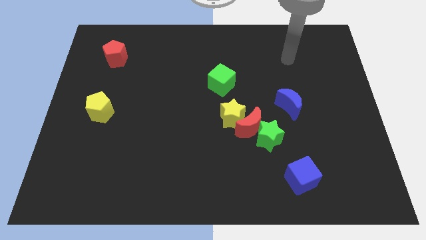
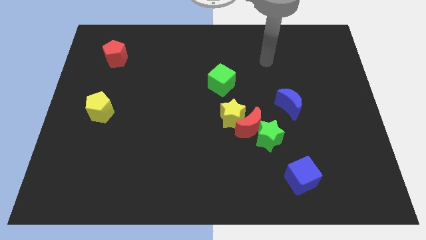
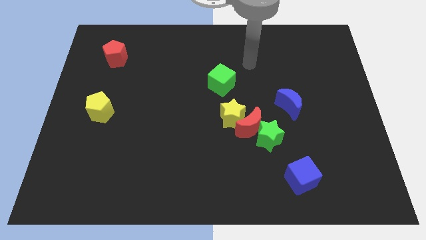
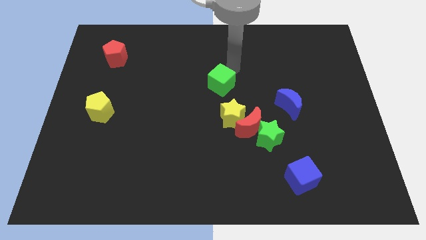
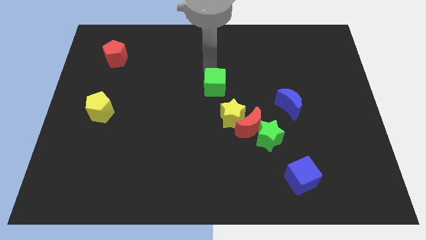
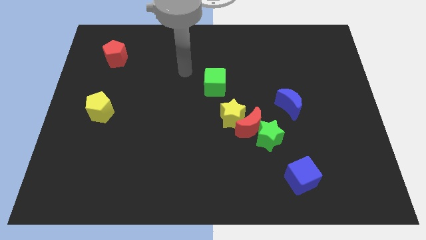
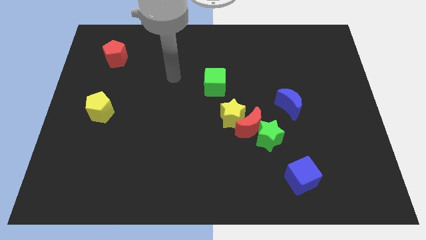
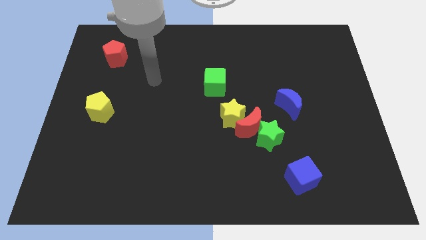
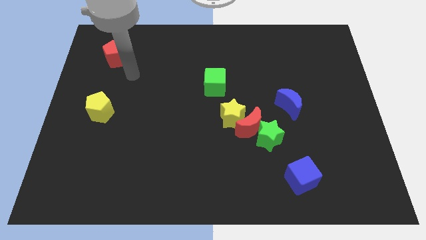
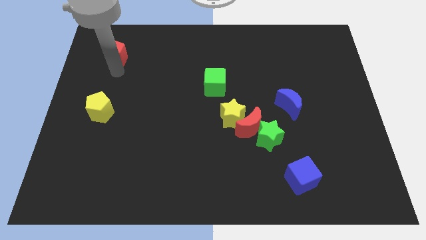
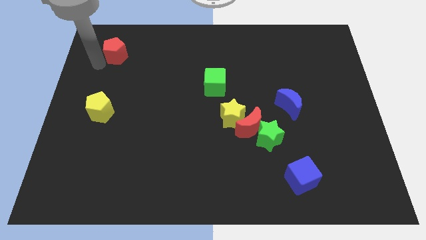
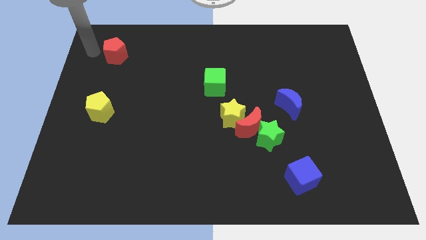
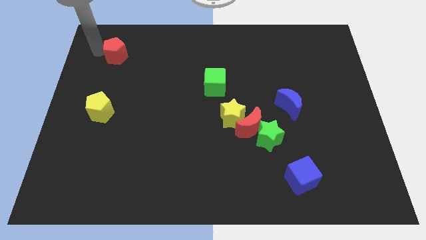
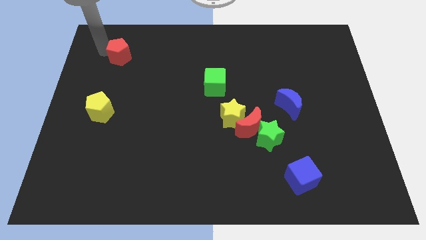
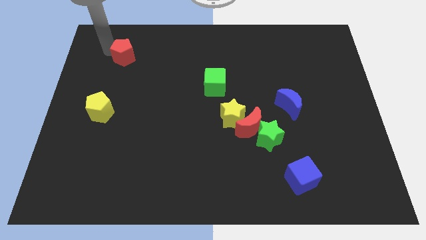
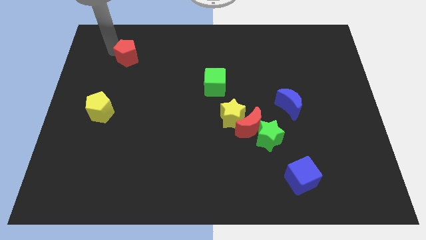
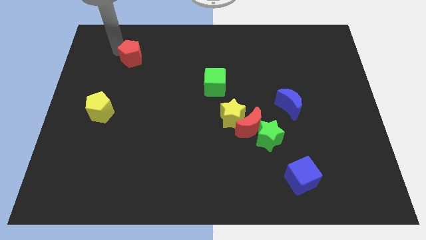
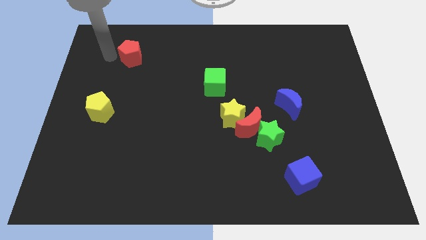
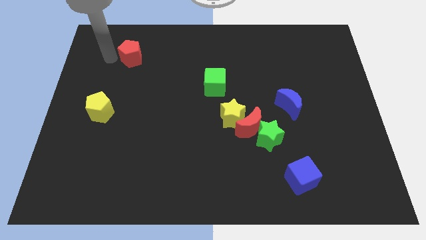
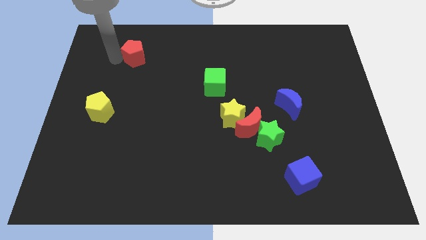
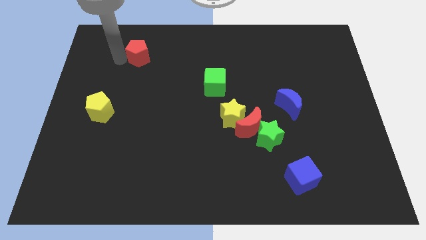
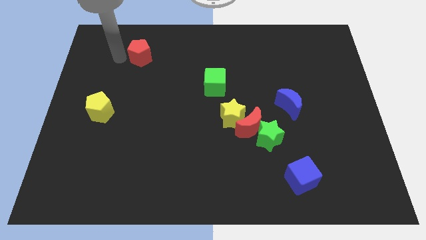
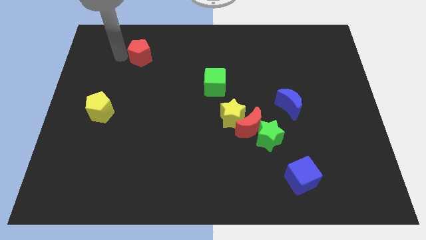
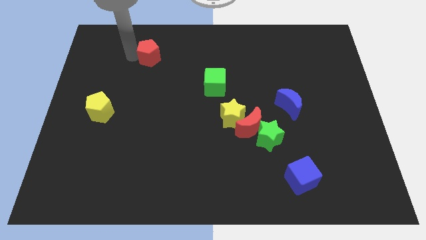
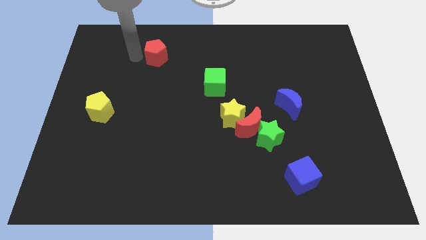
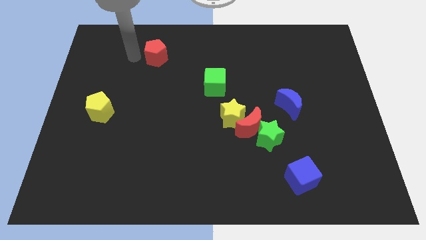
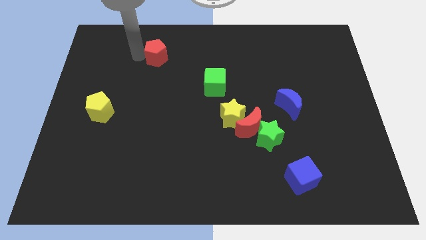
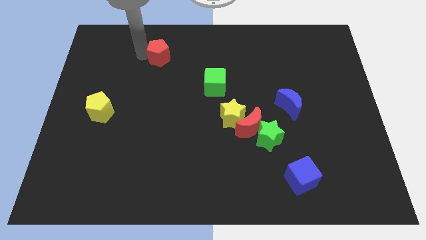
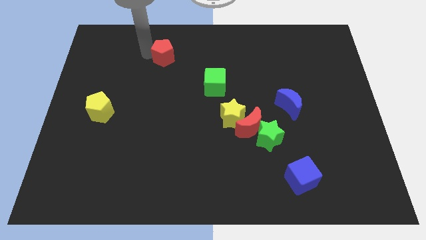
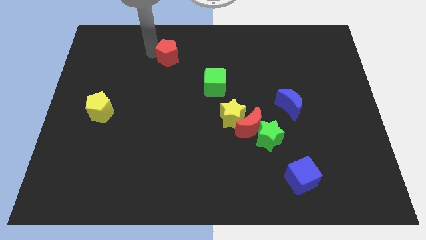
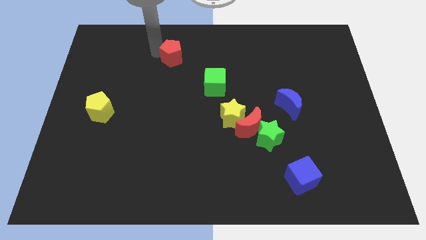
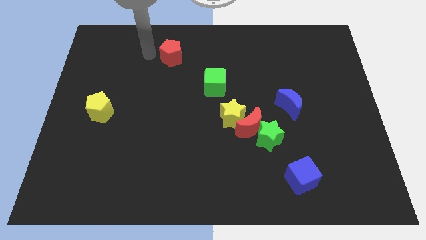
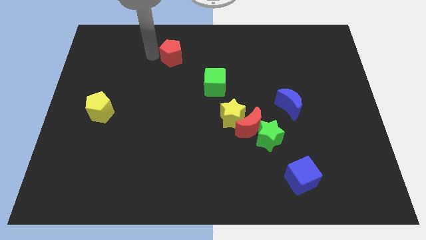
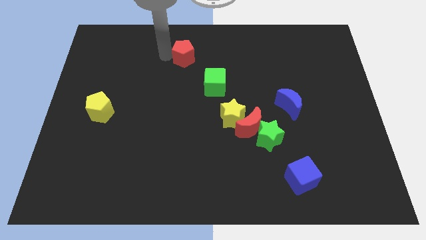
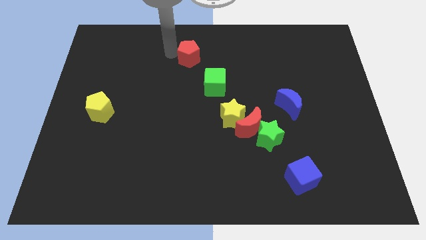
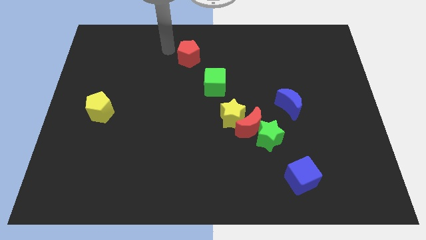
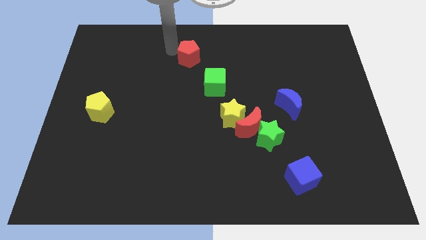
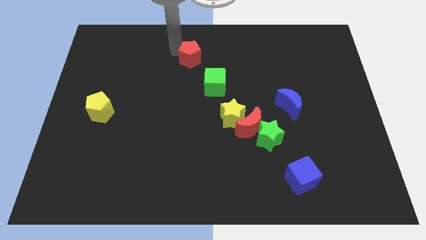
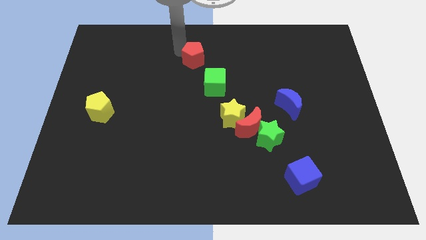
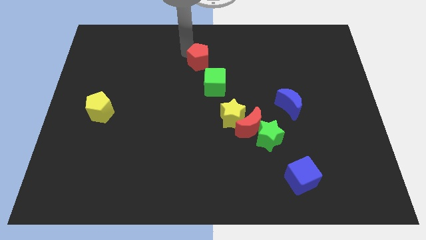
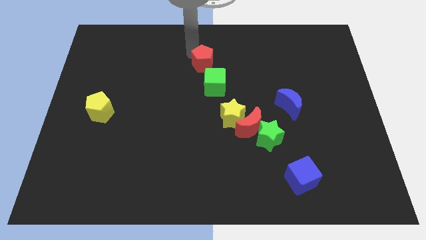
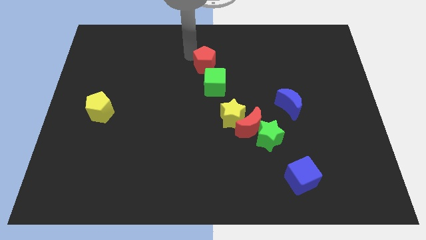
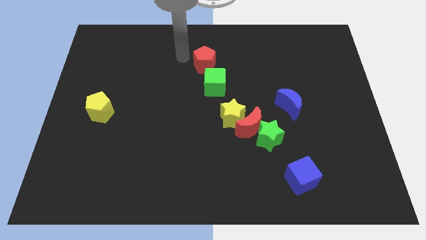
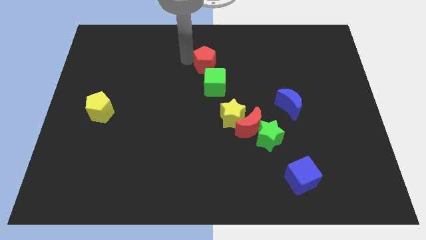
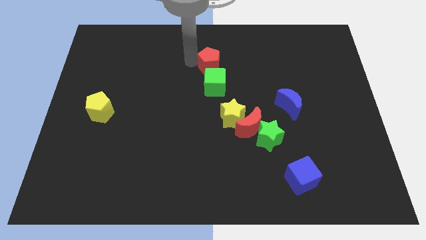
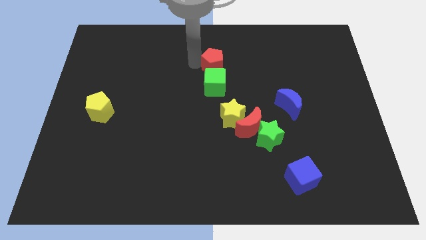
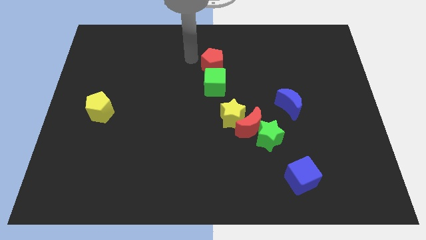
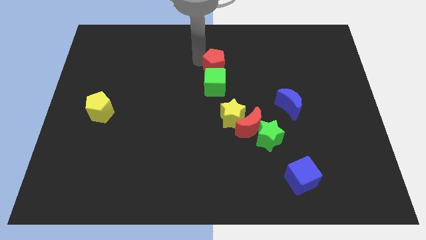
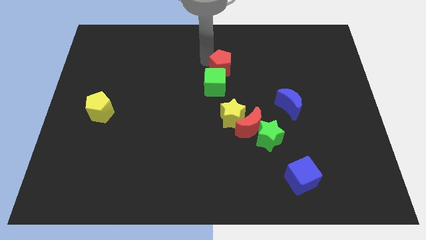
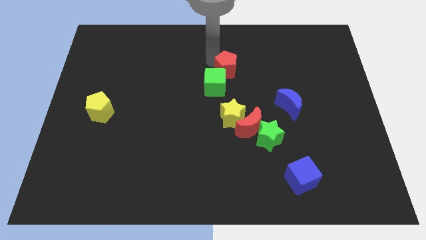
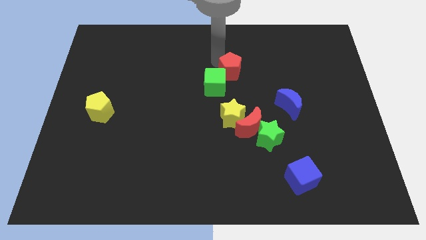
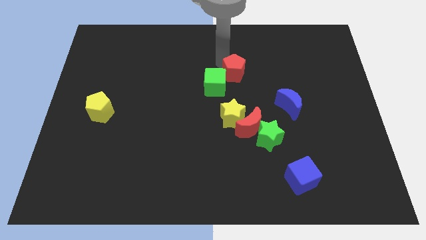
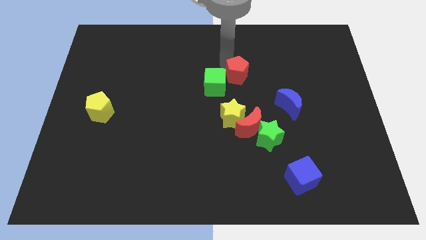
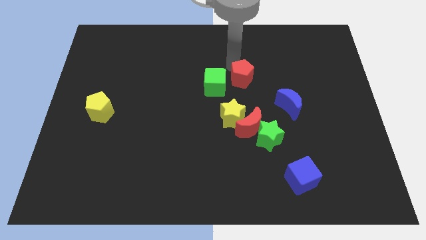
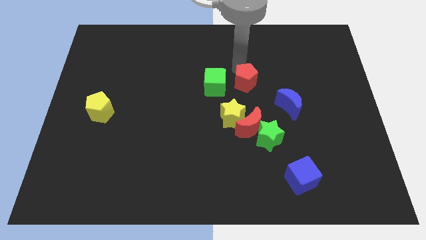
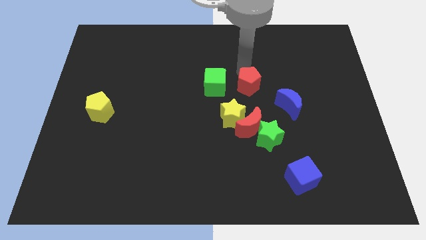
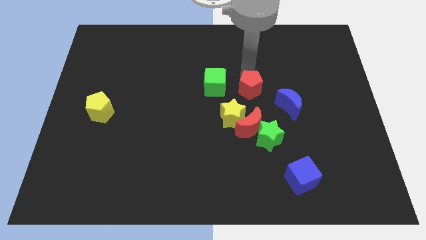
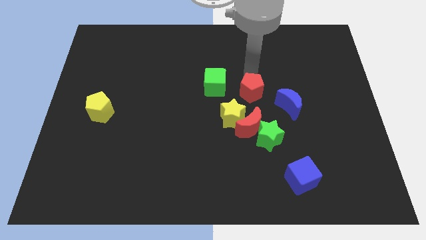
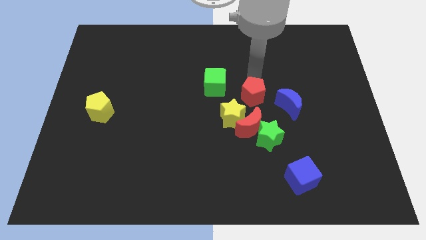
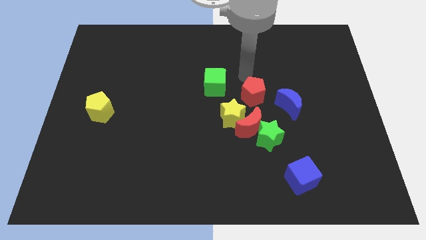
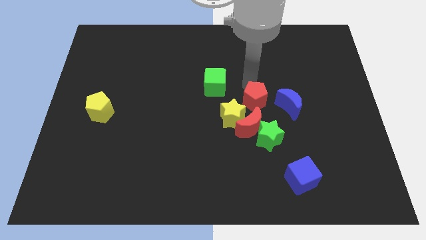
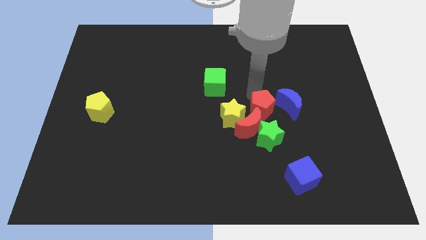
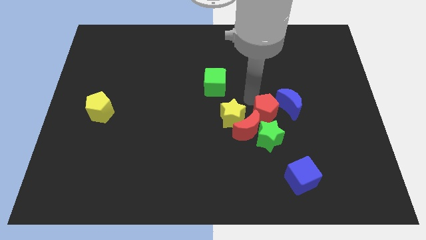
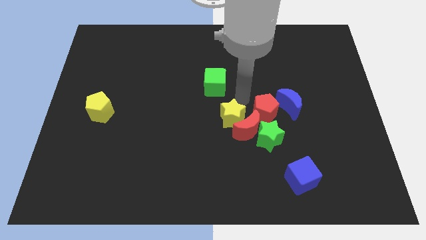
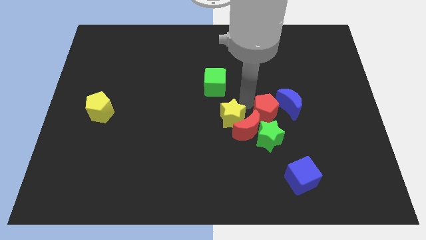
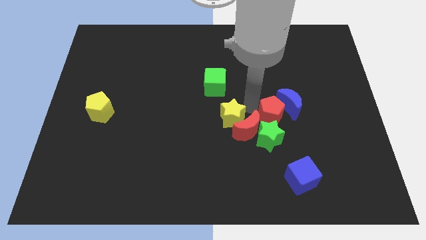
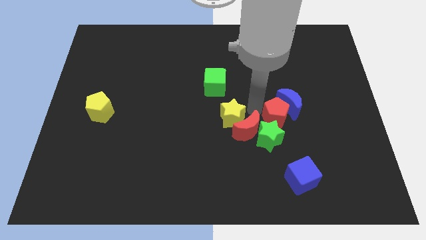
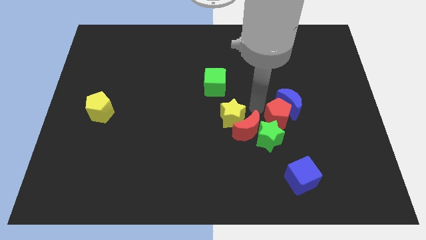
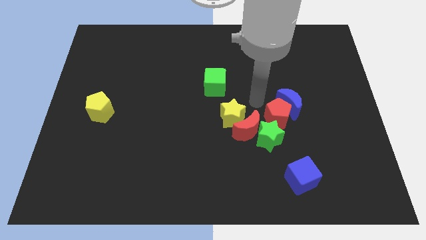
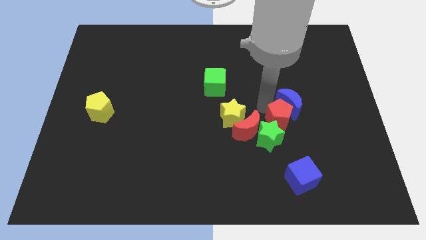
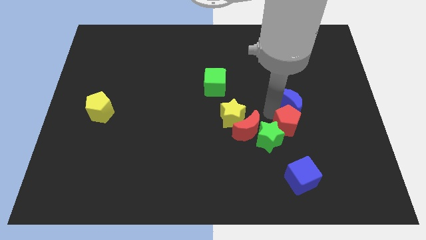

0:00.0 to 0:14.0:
push the red pentagon just right of the green star
